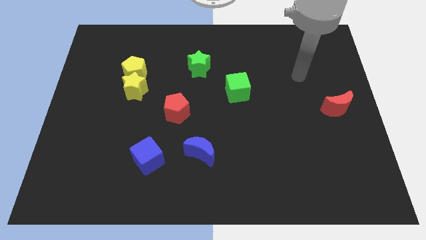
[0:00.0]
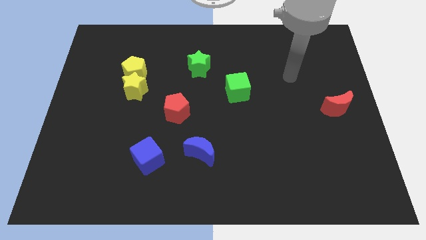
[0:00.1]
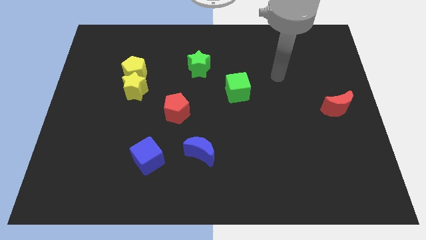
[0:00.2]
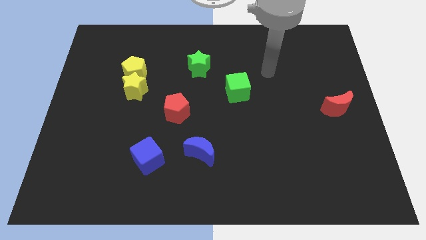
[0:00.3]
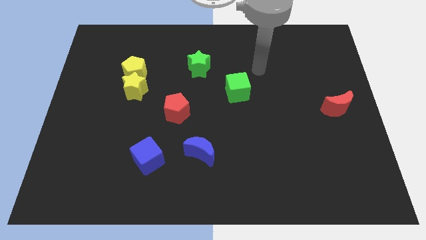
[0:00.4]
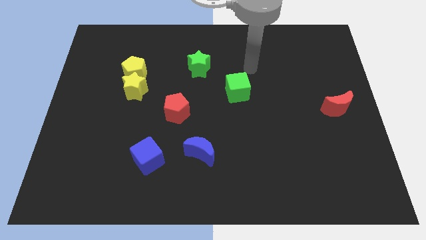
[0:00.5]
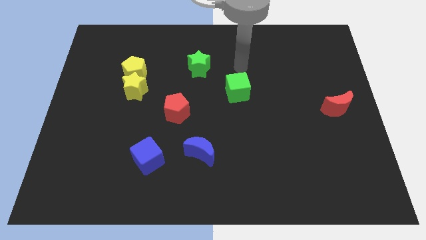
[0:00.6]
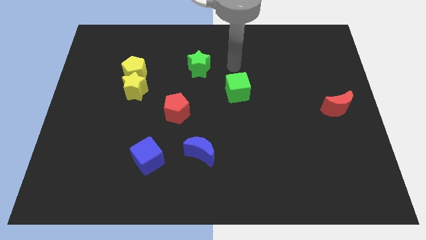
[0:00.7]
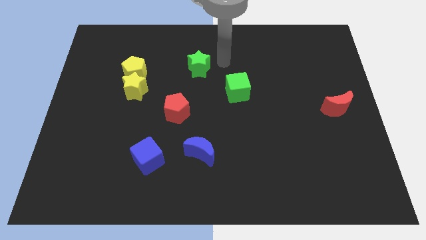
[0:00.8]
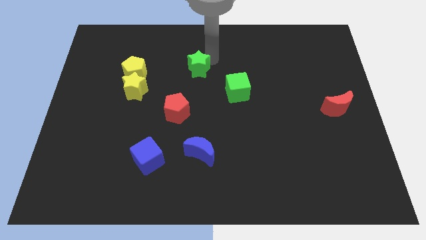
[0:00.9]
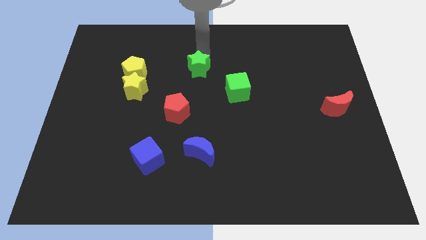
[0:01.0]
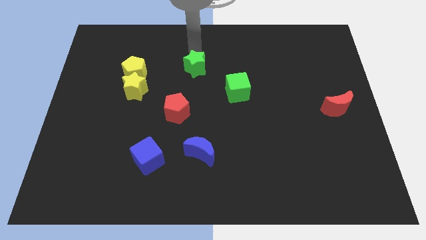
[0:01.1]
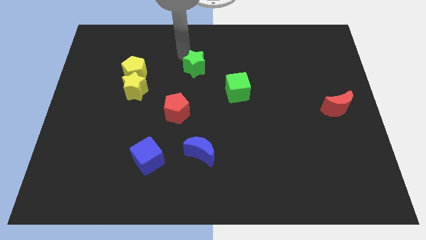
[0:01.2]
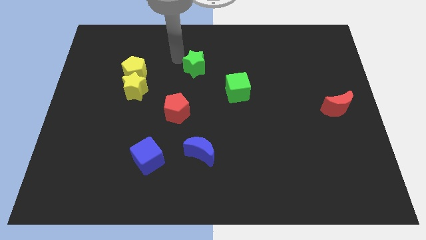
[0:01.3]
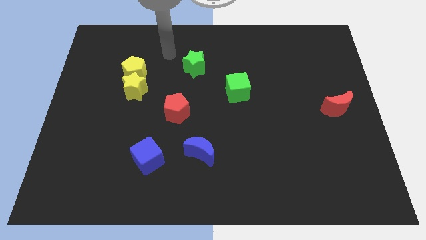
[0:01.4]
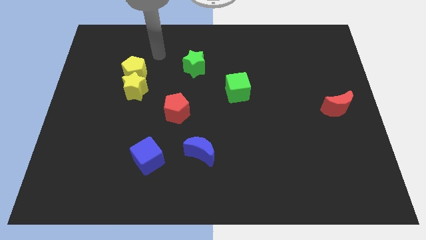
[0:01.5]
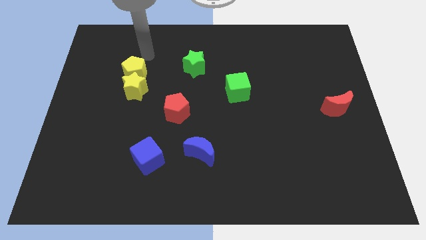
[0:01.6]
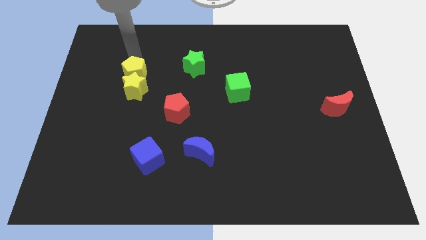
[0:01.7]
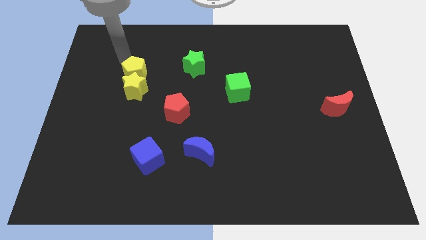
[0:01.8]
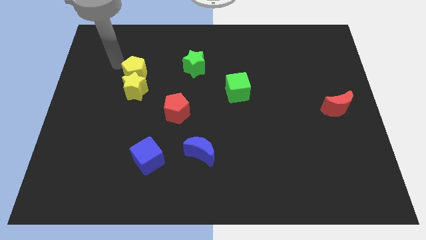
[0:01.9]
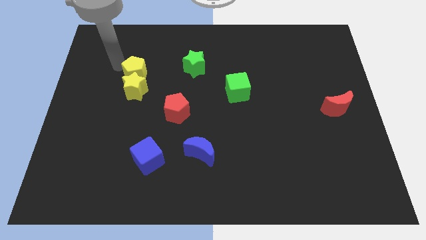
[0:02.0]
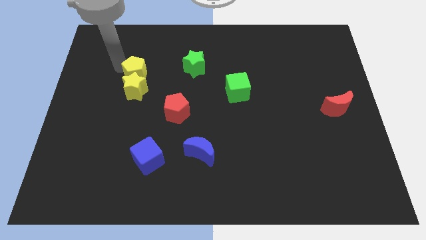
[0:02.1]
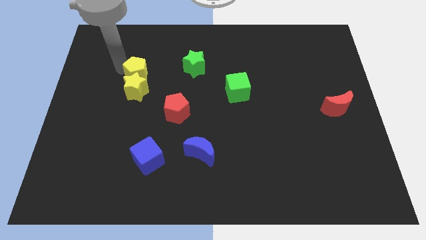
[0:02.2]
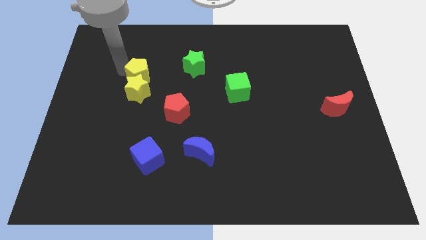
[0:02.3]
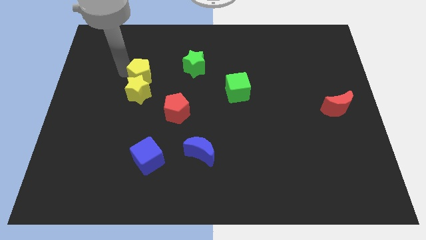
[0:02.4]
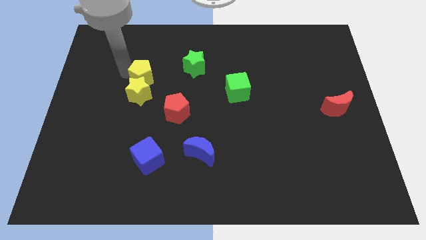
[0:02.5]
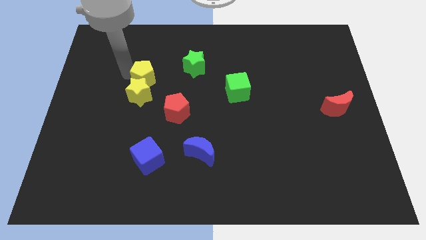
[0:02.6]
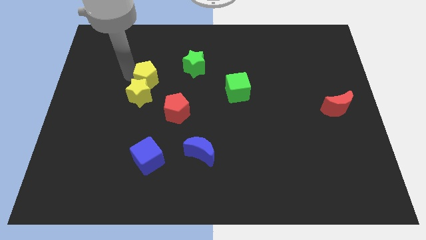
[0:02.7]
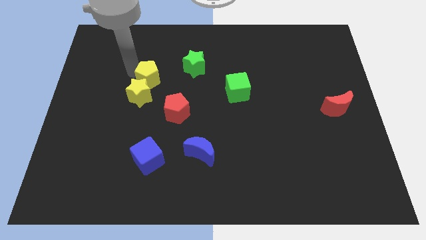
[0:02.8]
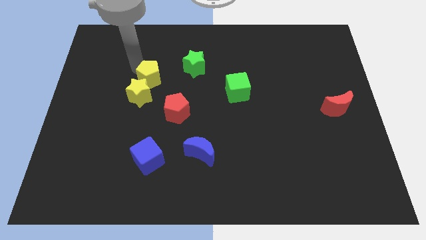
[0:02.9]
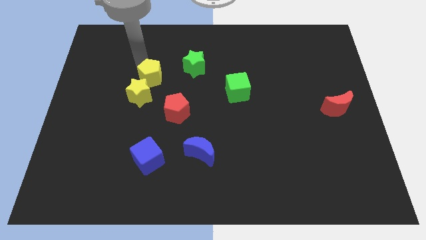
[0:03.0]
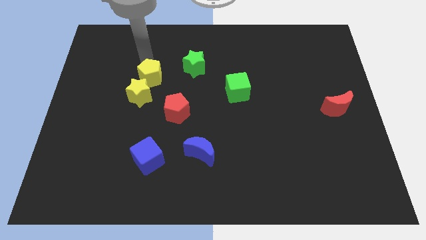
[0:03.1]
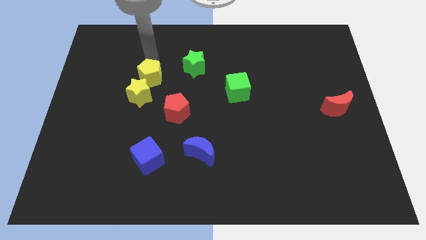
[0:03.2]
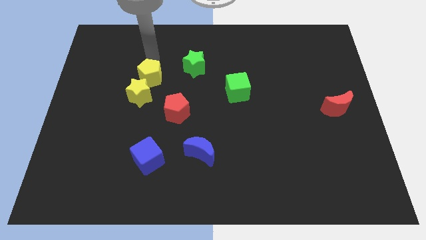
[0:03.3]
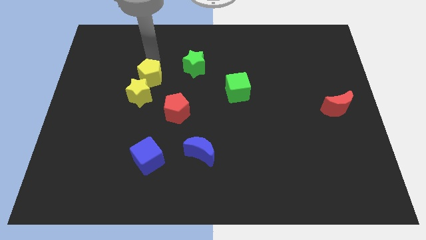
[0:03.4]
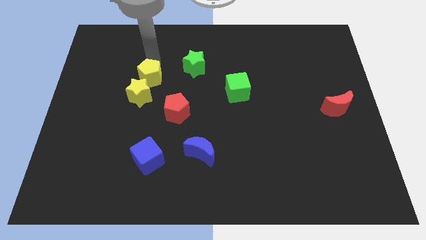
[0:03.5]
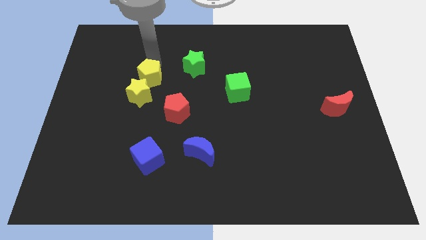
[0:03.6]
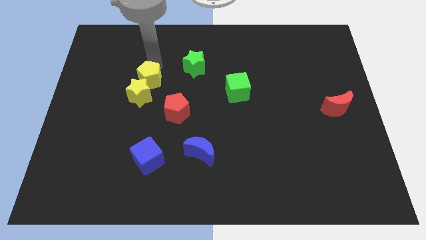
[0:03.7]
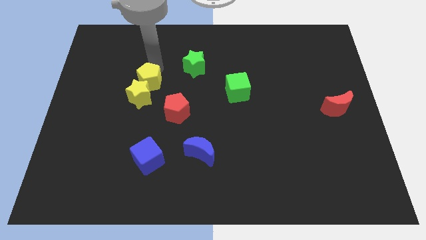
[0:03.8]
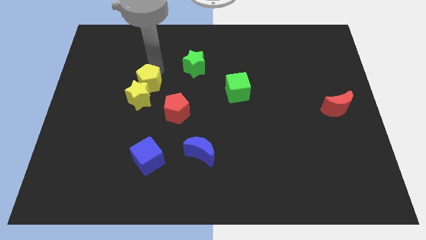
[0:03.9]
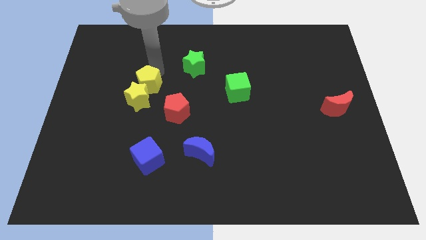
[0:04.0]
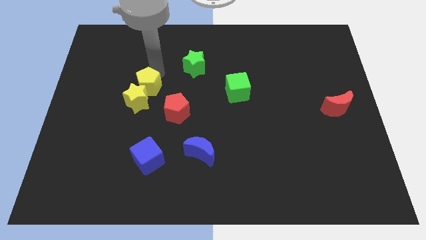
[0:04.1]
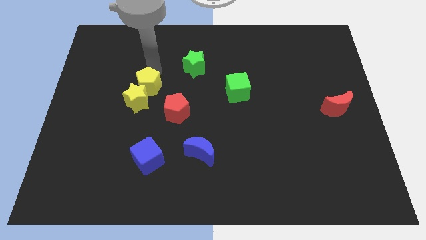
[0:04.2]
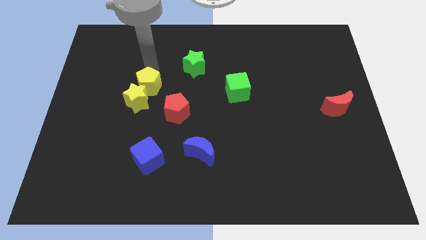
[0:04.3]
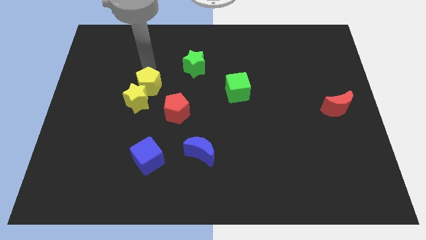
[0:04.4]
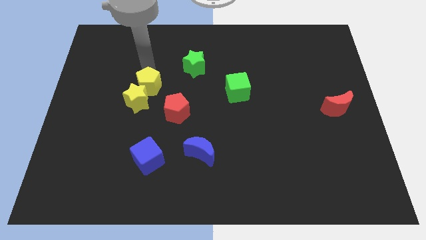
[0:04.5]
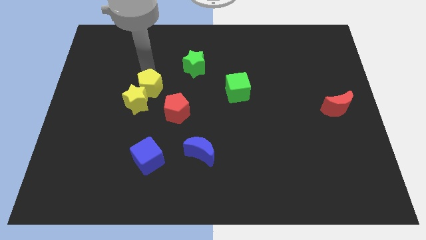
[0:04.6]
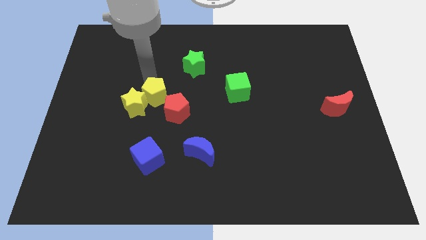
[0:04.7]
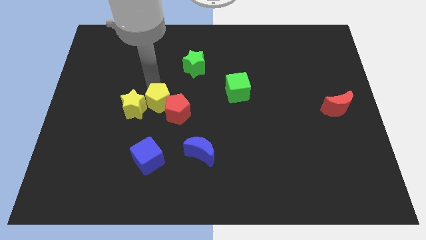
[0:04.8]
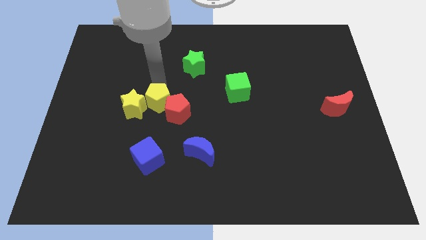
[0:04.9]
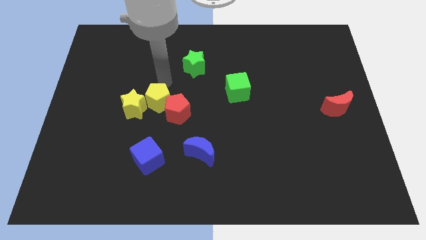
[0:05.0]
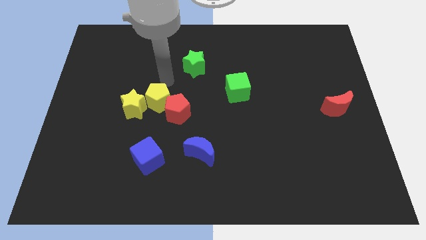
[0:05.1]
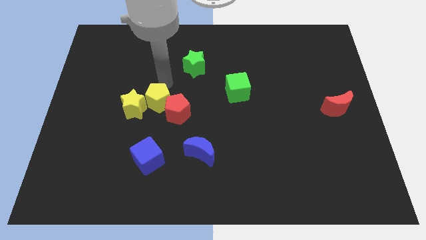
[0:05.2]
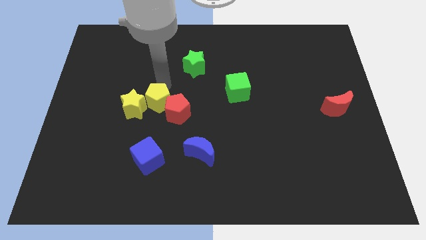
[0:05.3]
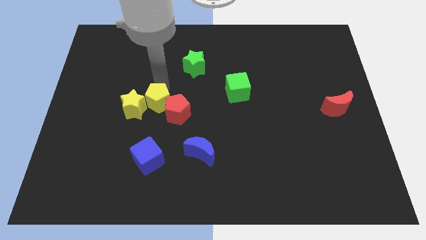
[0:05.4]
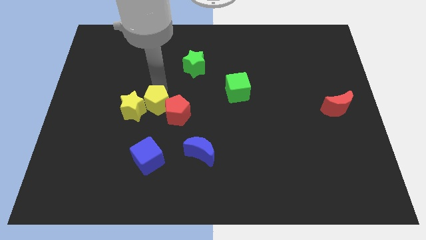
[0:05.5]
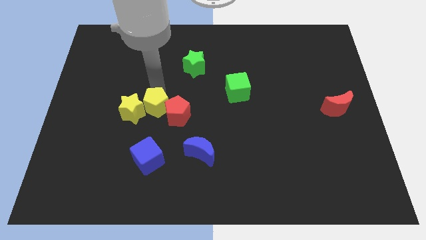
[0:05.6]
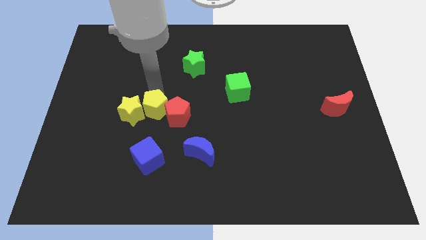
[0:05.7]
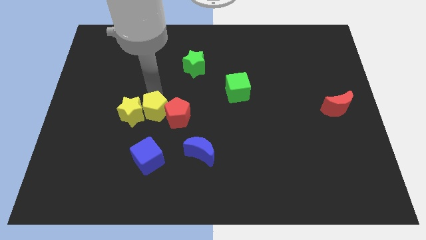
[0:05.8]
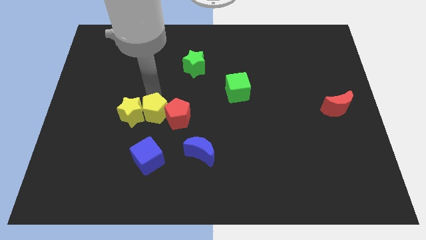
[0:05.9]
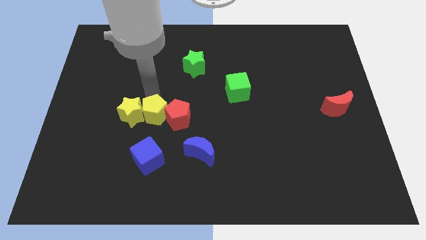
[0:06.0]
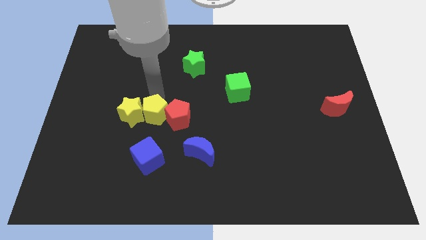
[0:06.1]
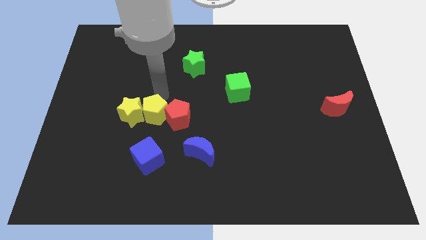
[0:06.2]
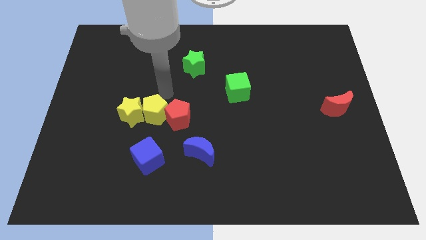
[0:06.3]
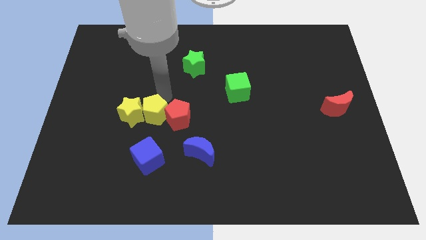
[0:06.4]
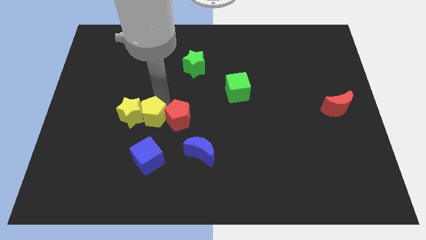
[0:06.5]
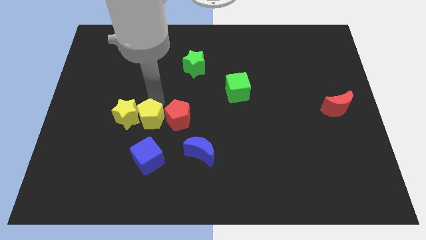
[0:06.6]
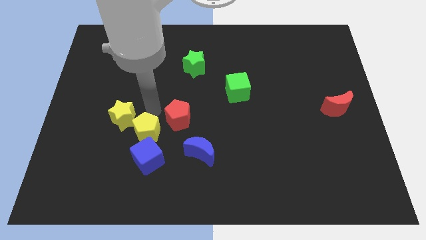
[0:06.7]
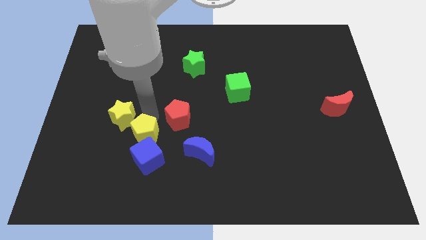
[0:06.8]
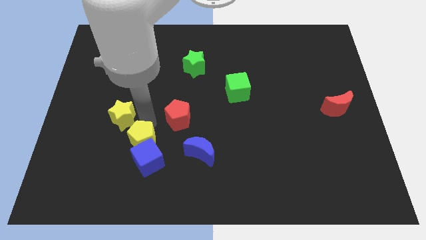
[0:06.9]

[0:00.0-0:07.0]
move the yellow pentagon towards the blue cube

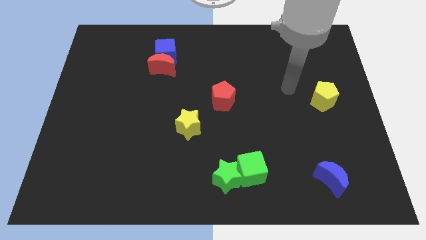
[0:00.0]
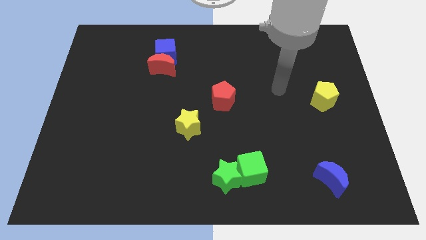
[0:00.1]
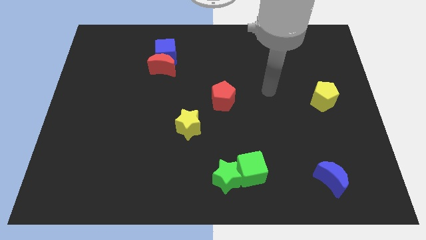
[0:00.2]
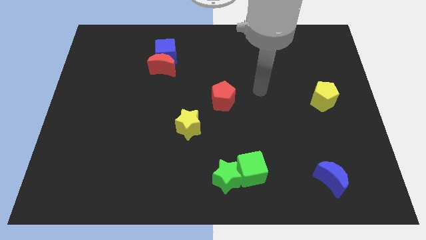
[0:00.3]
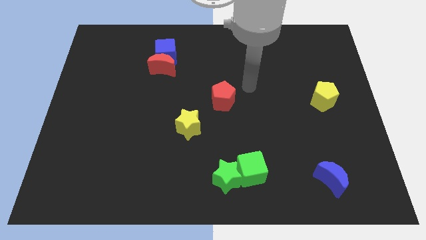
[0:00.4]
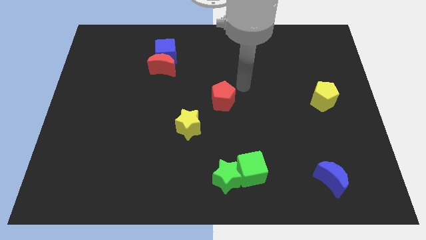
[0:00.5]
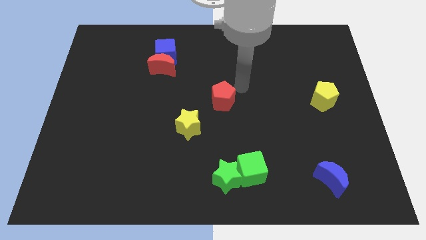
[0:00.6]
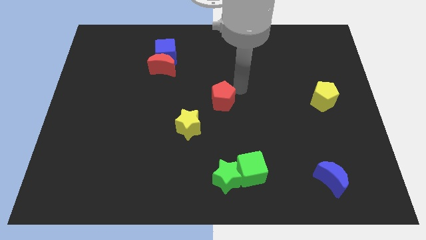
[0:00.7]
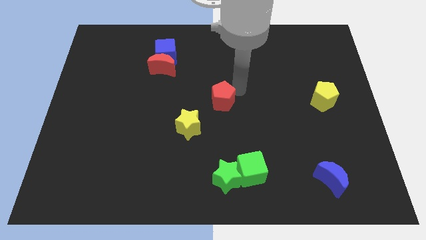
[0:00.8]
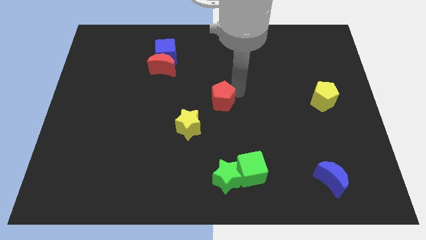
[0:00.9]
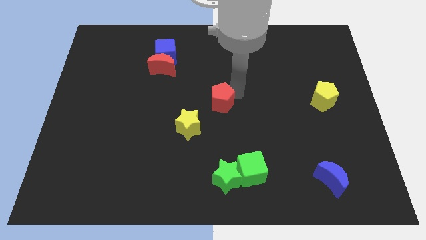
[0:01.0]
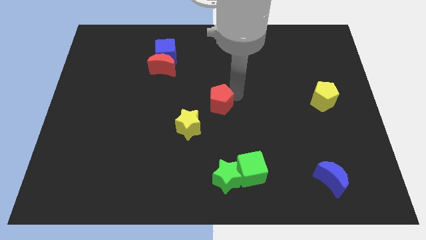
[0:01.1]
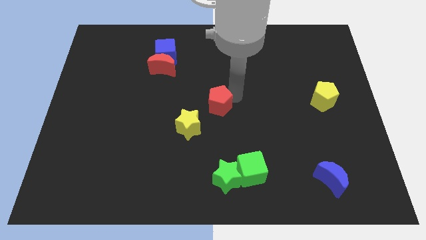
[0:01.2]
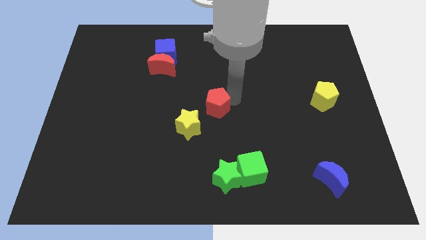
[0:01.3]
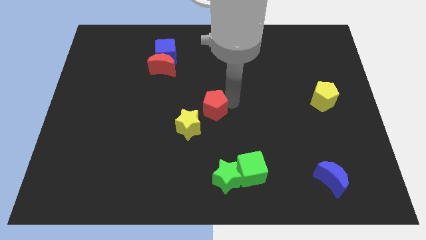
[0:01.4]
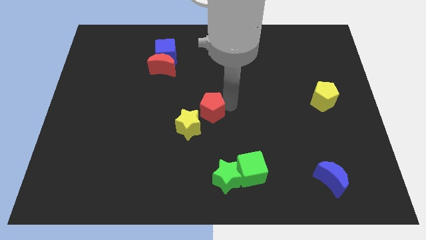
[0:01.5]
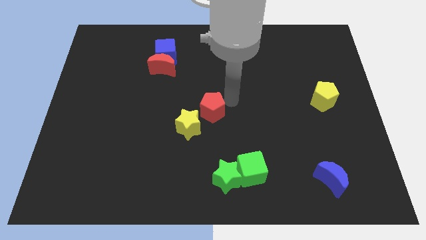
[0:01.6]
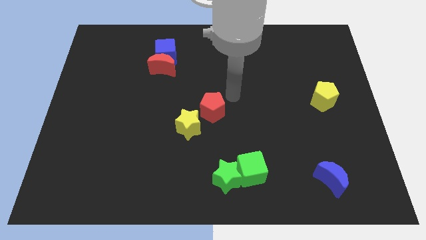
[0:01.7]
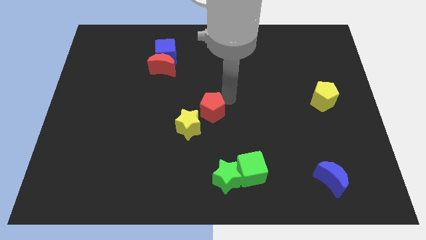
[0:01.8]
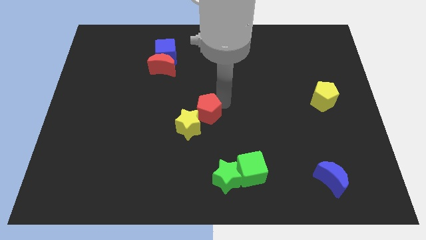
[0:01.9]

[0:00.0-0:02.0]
put the red pentagon to the yellow star
